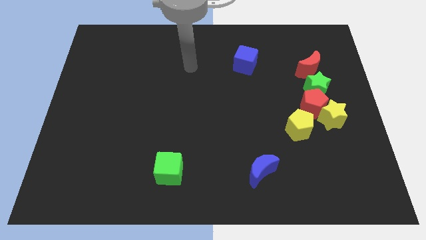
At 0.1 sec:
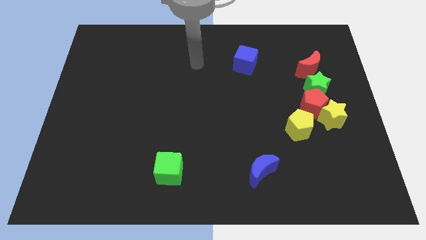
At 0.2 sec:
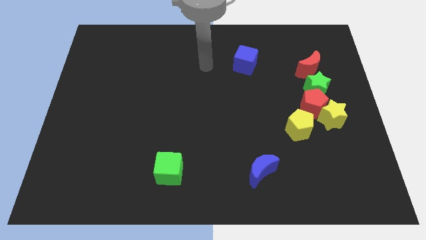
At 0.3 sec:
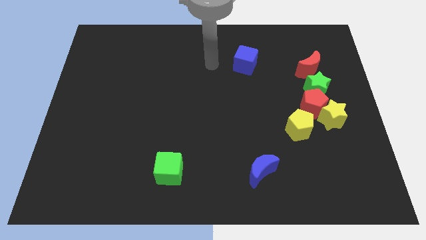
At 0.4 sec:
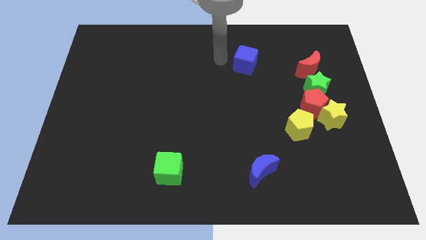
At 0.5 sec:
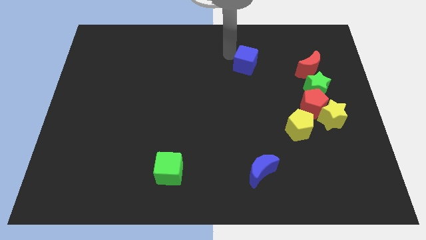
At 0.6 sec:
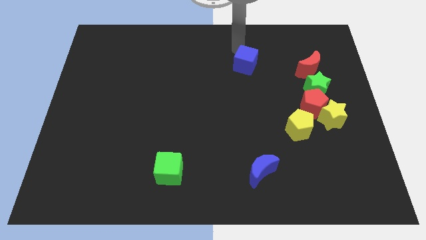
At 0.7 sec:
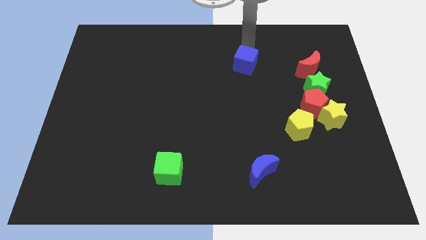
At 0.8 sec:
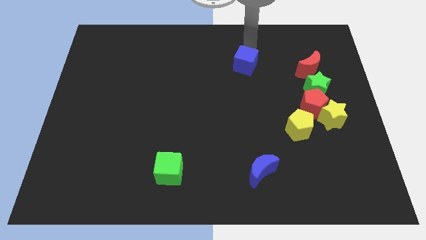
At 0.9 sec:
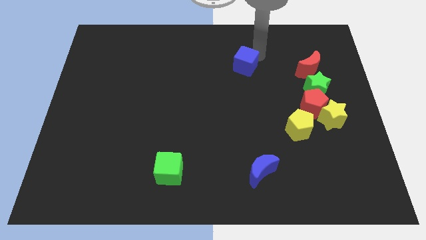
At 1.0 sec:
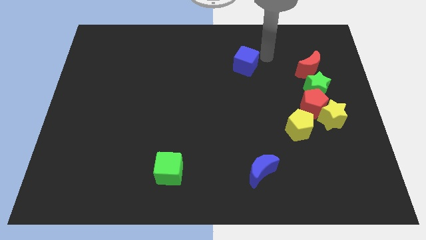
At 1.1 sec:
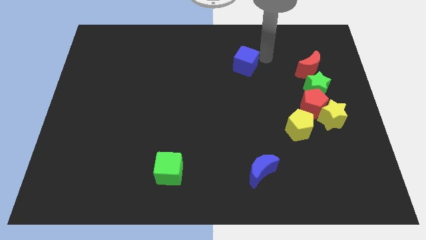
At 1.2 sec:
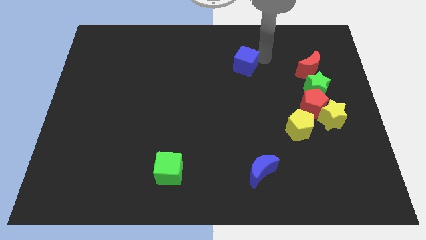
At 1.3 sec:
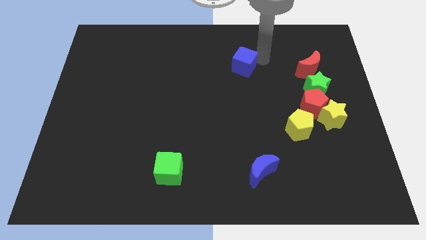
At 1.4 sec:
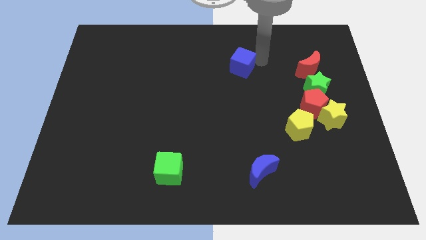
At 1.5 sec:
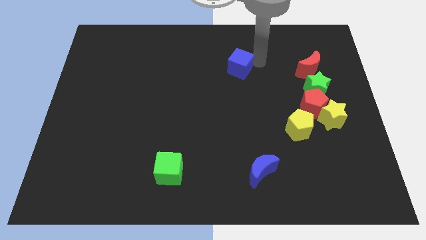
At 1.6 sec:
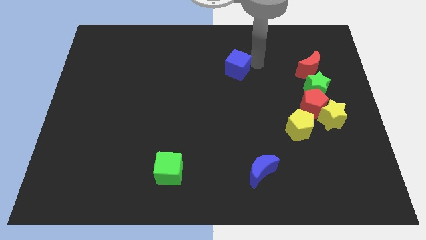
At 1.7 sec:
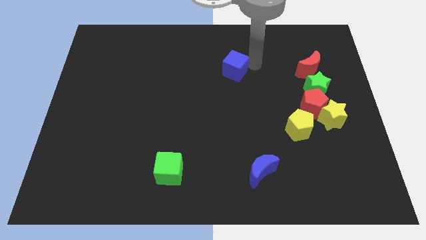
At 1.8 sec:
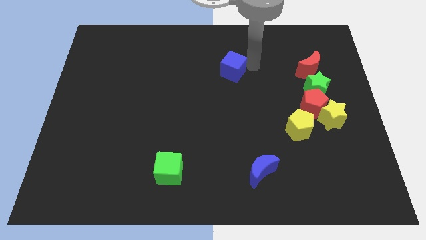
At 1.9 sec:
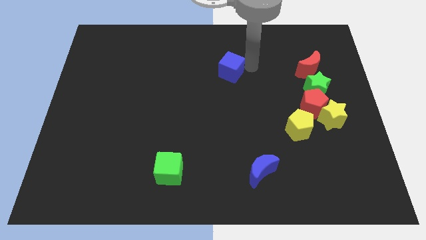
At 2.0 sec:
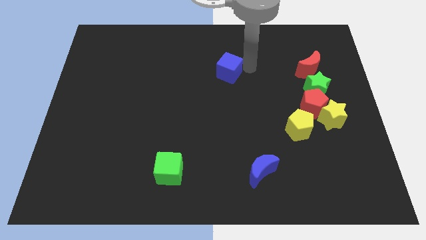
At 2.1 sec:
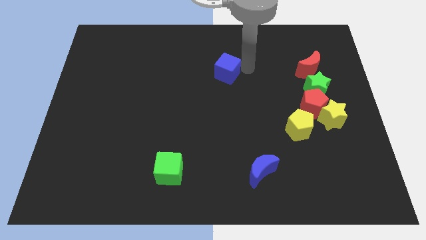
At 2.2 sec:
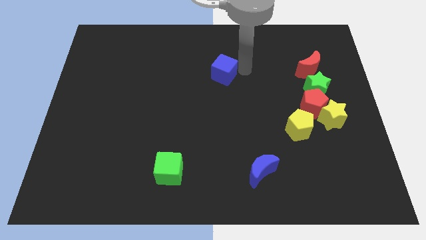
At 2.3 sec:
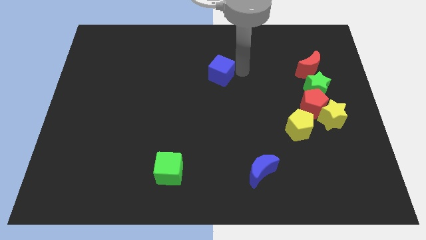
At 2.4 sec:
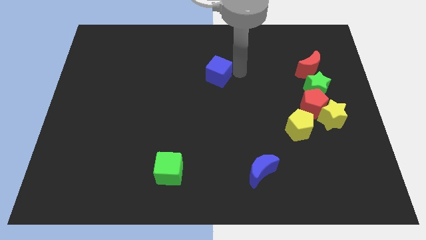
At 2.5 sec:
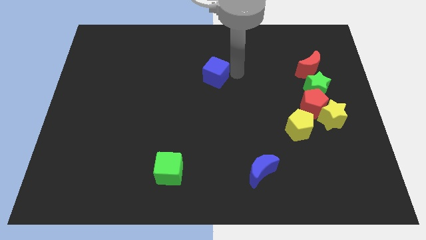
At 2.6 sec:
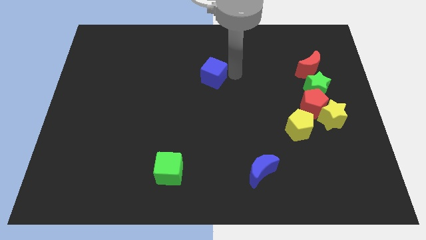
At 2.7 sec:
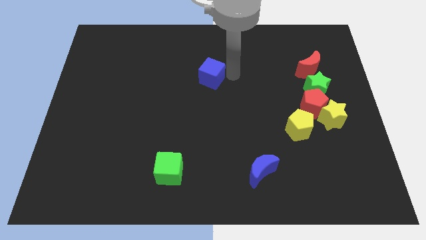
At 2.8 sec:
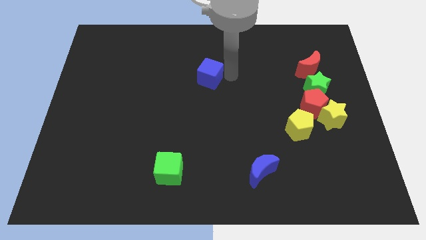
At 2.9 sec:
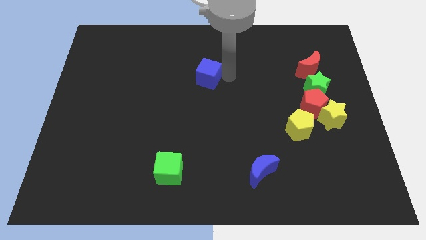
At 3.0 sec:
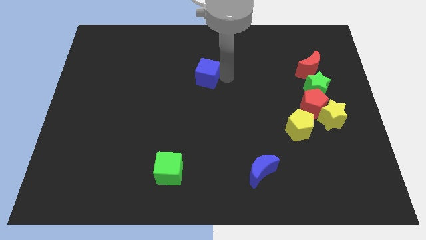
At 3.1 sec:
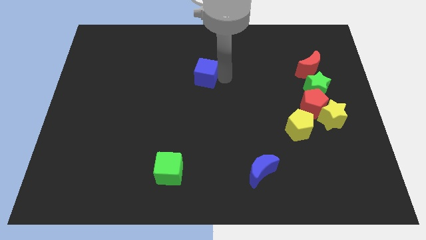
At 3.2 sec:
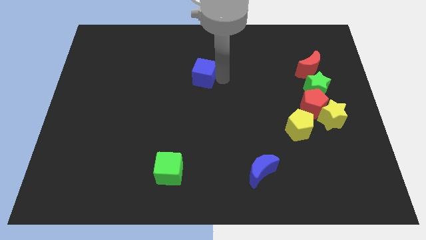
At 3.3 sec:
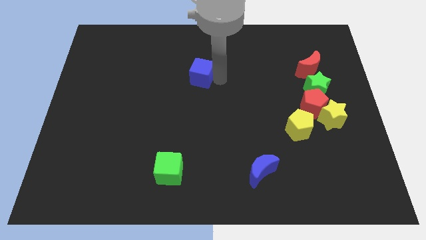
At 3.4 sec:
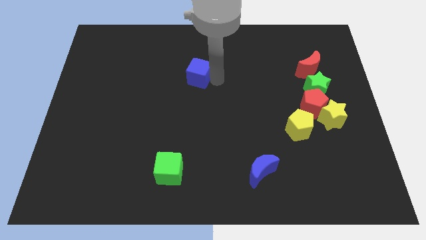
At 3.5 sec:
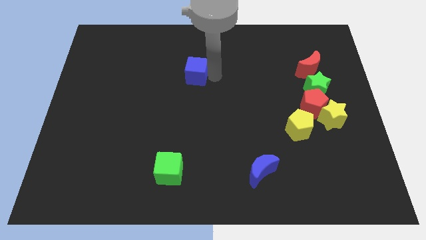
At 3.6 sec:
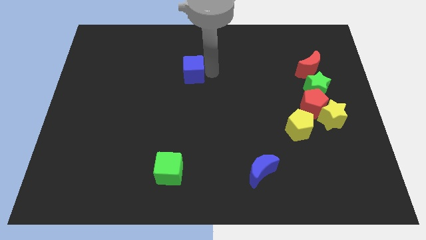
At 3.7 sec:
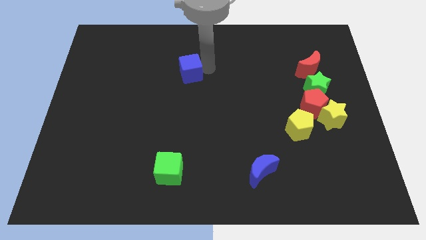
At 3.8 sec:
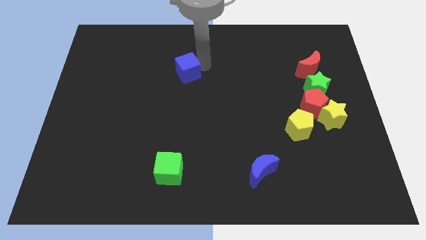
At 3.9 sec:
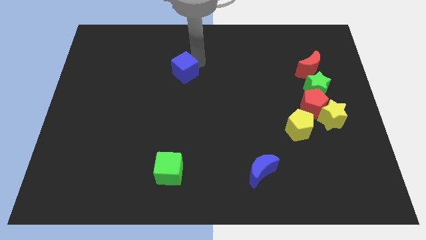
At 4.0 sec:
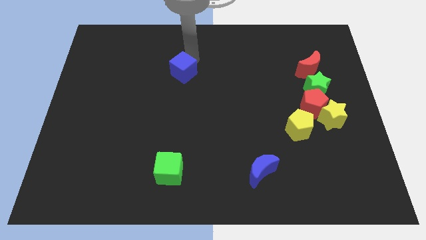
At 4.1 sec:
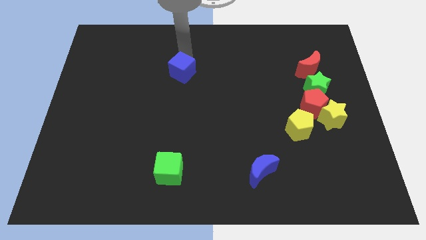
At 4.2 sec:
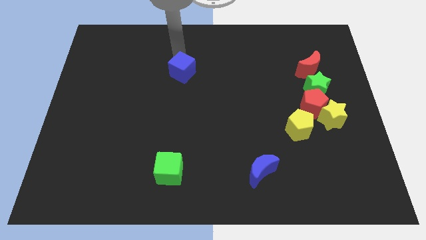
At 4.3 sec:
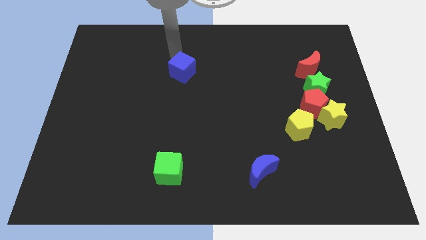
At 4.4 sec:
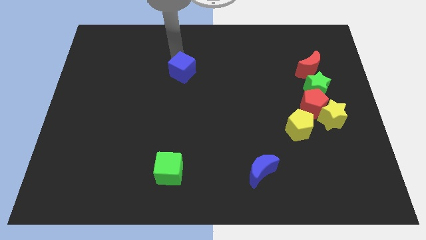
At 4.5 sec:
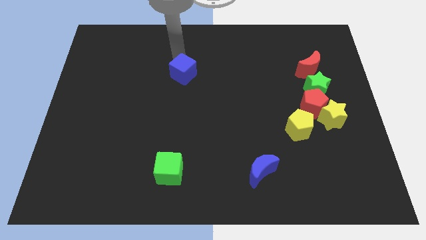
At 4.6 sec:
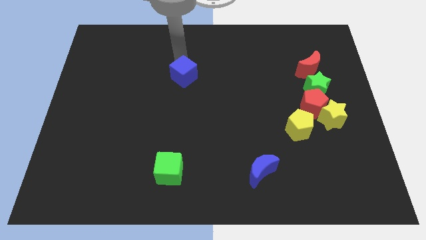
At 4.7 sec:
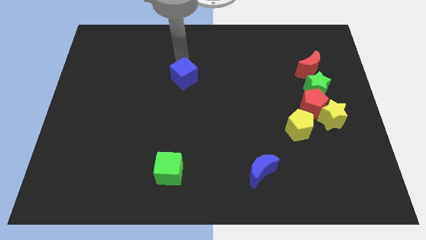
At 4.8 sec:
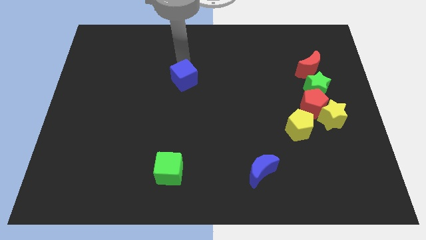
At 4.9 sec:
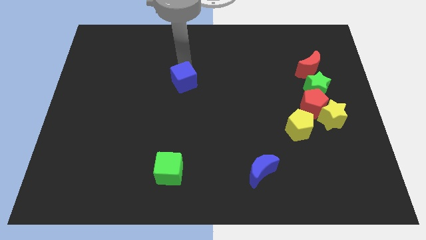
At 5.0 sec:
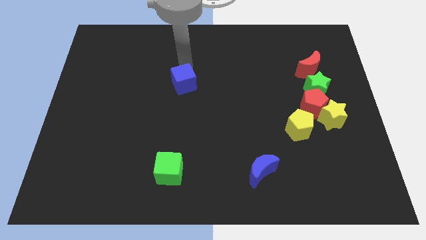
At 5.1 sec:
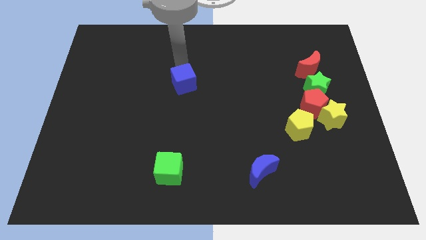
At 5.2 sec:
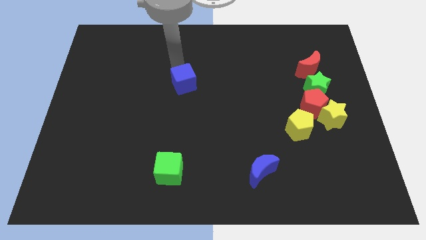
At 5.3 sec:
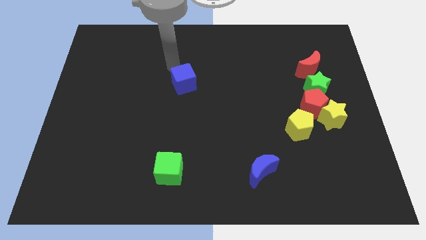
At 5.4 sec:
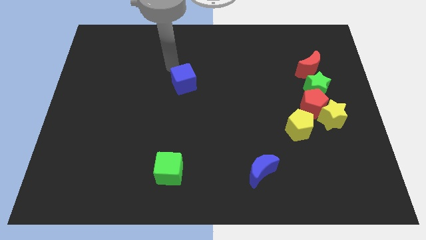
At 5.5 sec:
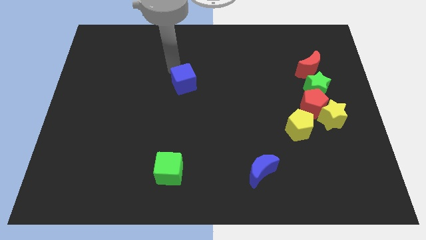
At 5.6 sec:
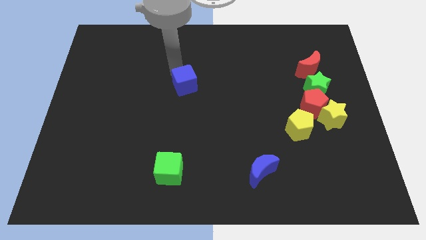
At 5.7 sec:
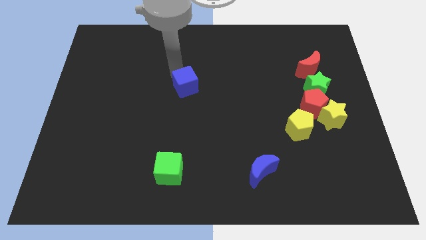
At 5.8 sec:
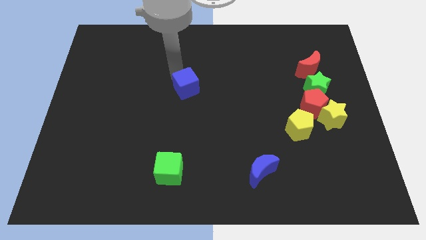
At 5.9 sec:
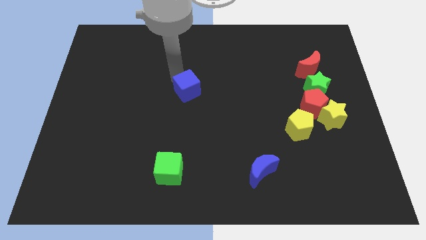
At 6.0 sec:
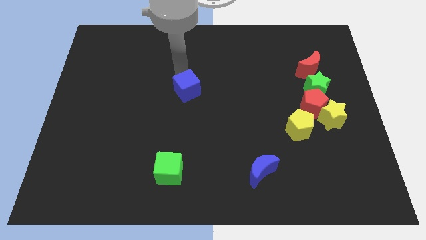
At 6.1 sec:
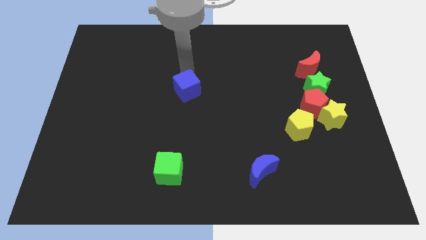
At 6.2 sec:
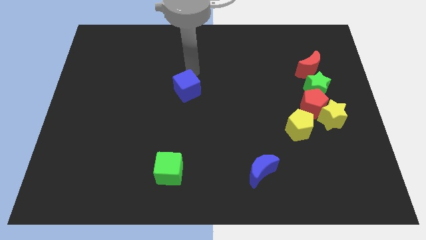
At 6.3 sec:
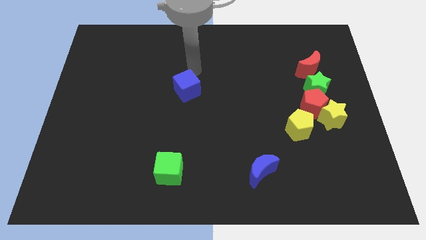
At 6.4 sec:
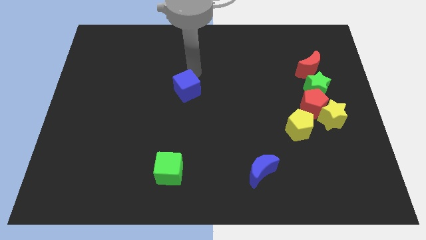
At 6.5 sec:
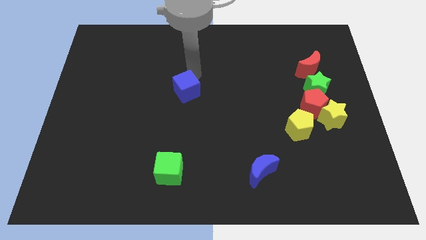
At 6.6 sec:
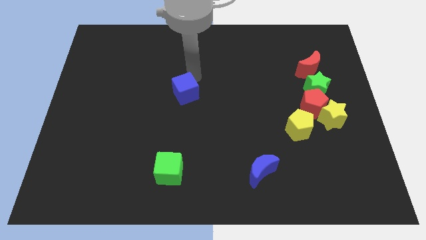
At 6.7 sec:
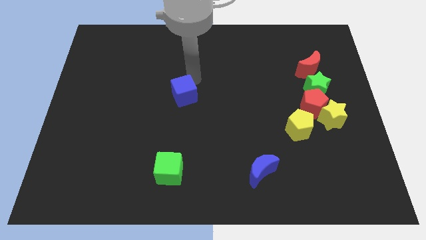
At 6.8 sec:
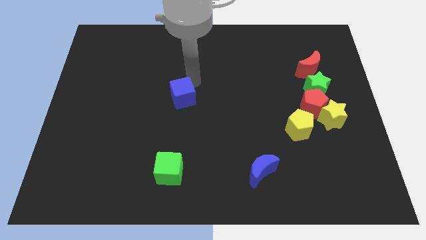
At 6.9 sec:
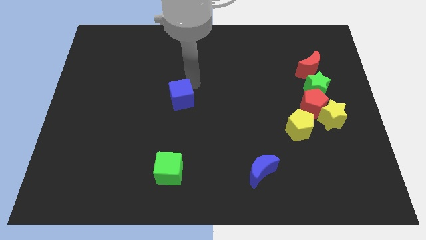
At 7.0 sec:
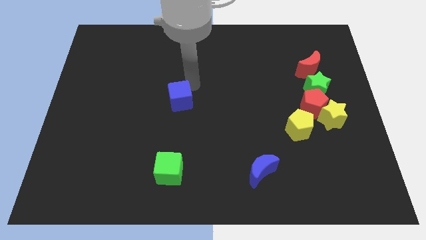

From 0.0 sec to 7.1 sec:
move the blue cube diagonally downwards and to the left

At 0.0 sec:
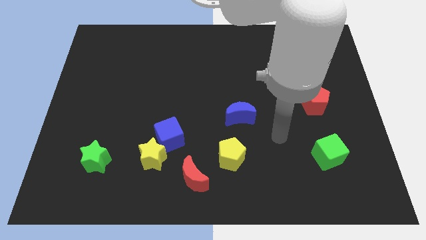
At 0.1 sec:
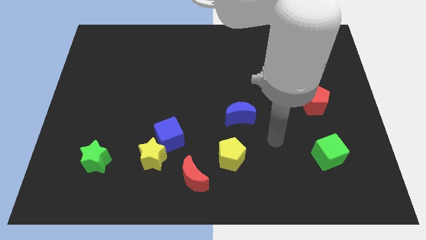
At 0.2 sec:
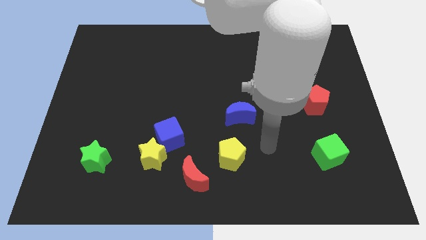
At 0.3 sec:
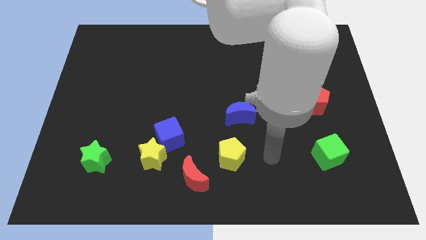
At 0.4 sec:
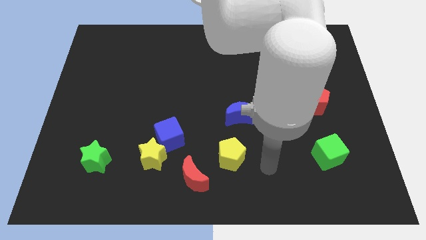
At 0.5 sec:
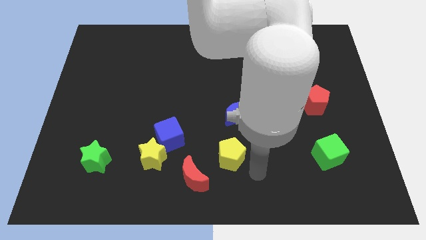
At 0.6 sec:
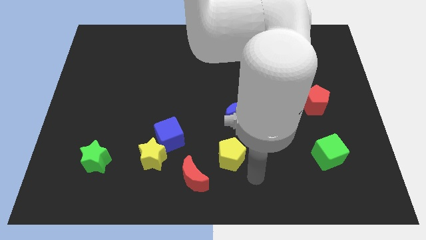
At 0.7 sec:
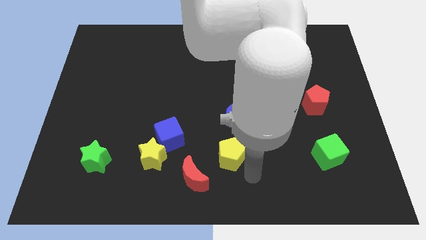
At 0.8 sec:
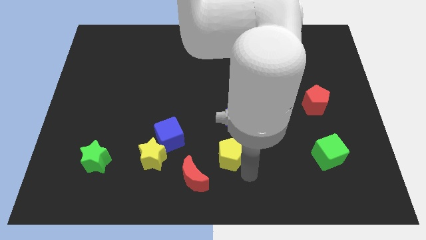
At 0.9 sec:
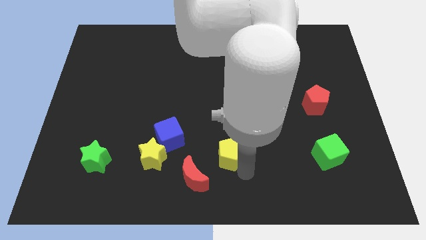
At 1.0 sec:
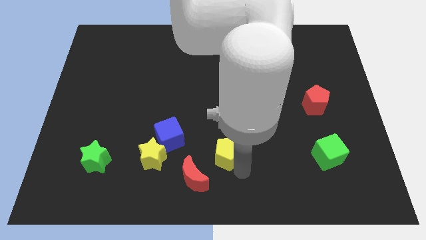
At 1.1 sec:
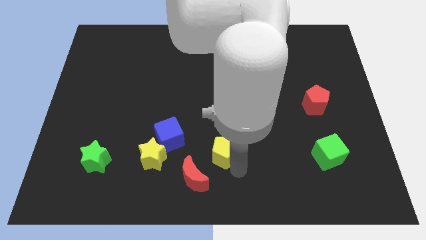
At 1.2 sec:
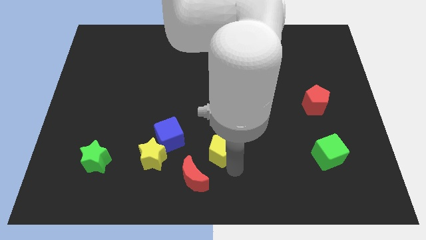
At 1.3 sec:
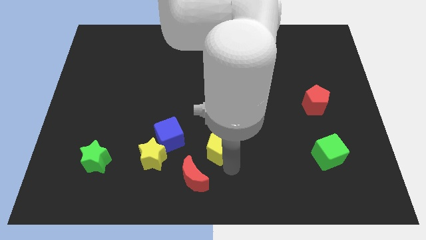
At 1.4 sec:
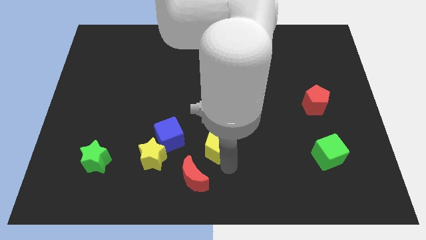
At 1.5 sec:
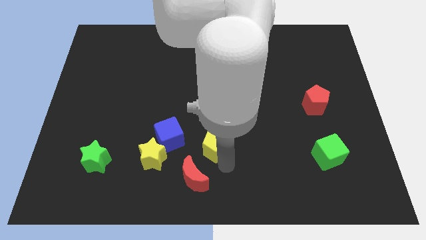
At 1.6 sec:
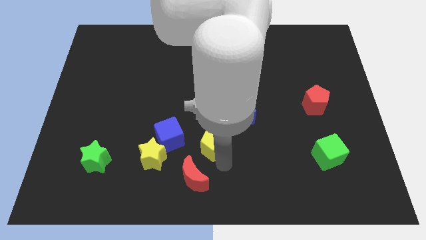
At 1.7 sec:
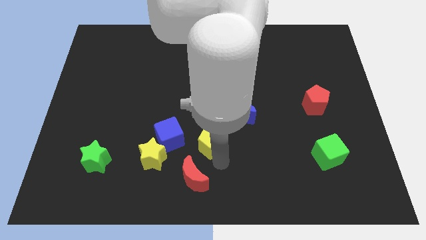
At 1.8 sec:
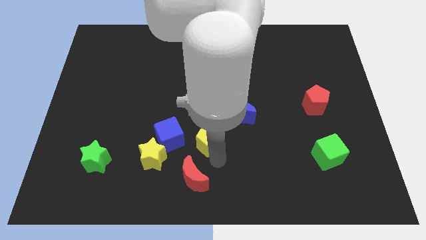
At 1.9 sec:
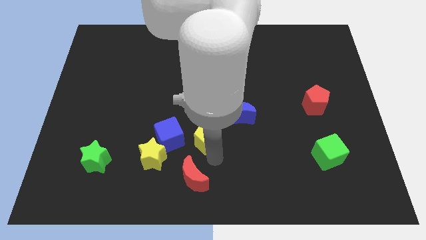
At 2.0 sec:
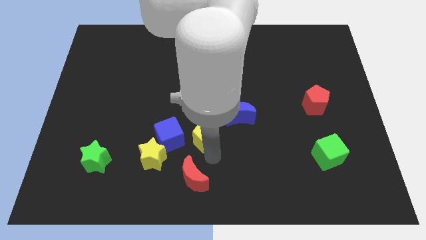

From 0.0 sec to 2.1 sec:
slide the yellow pentagon up and then left slightly
